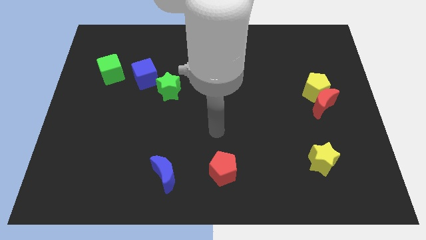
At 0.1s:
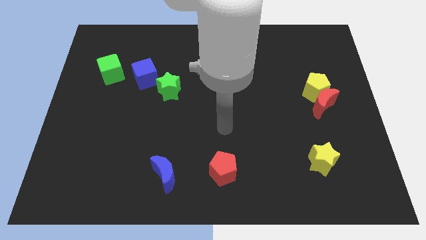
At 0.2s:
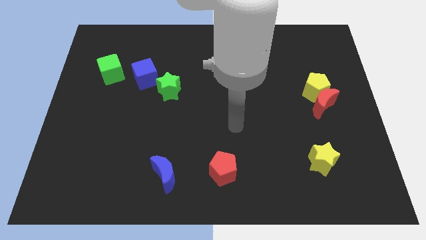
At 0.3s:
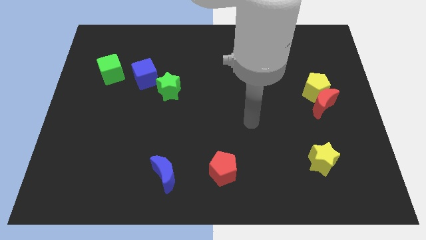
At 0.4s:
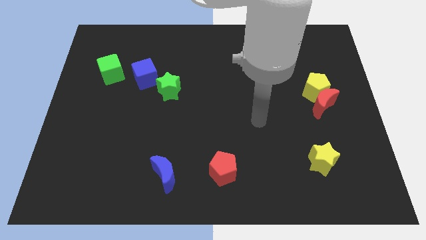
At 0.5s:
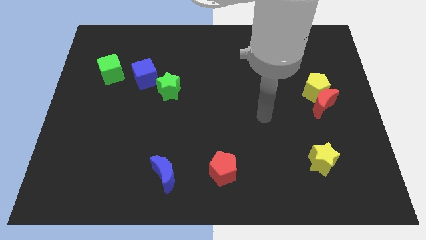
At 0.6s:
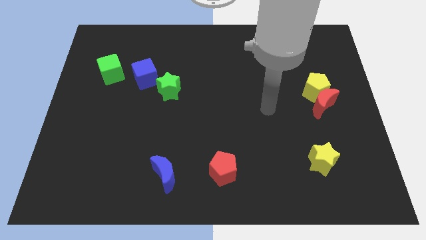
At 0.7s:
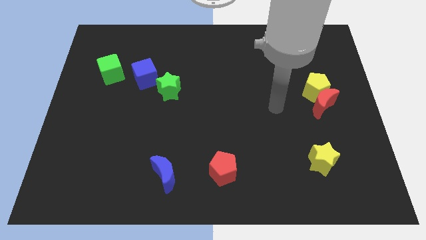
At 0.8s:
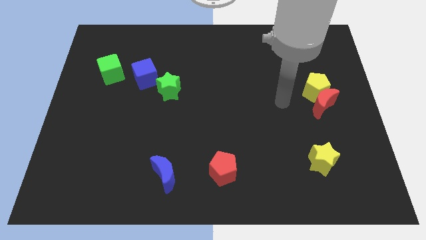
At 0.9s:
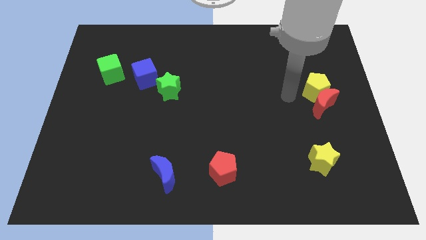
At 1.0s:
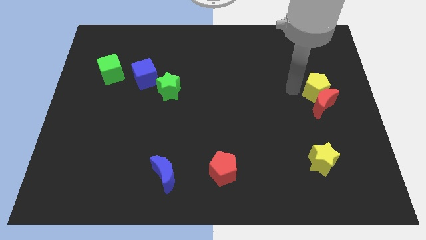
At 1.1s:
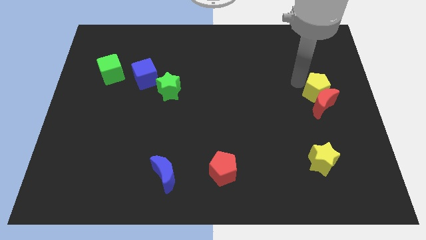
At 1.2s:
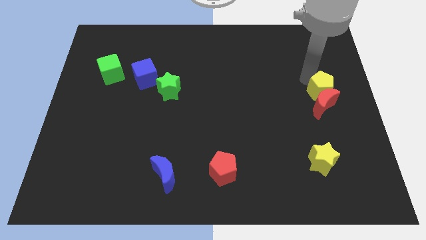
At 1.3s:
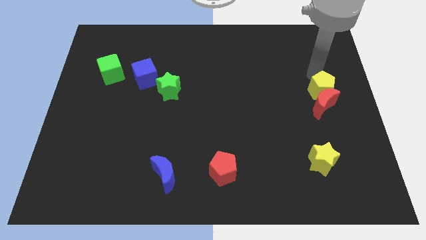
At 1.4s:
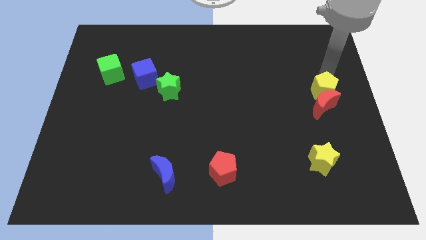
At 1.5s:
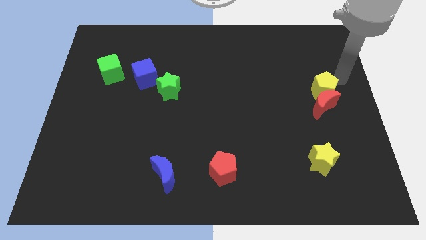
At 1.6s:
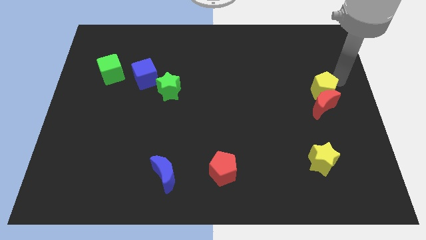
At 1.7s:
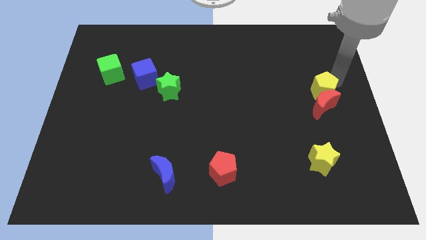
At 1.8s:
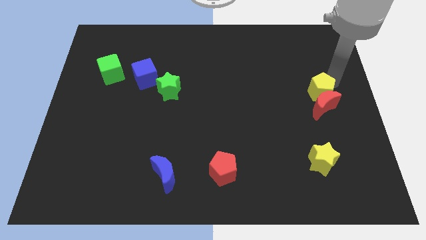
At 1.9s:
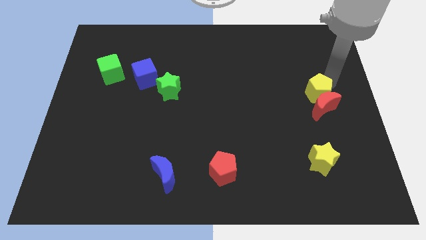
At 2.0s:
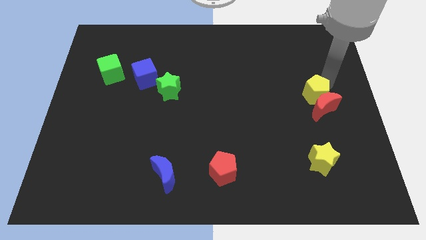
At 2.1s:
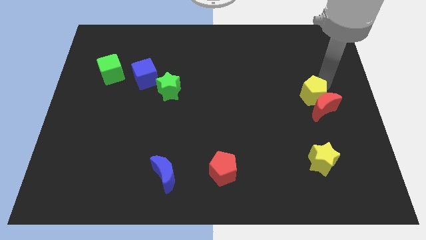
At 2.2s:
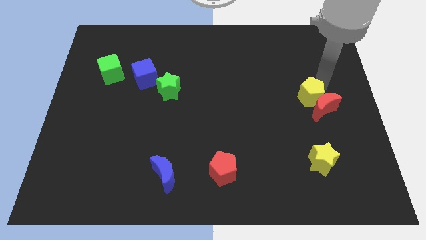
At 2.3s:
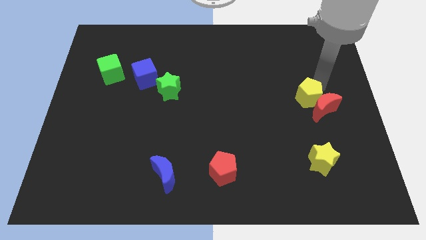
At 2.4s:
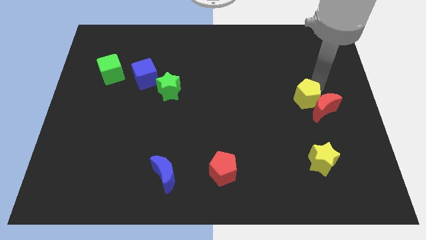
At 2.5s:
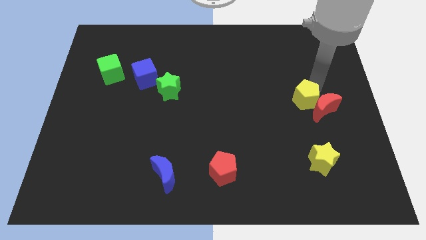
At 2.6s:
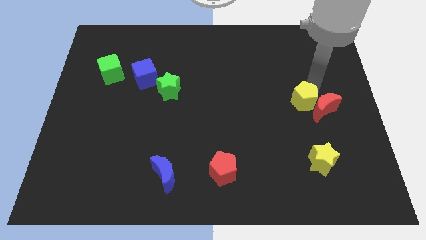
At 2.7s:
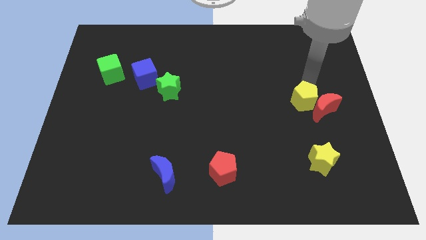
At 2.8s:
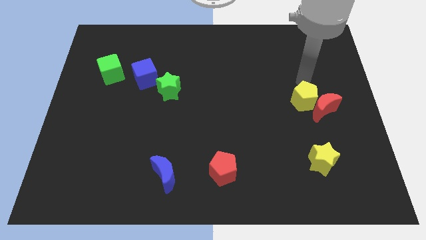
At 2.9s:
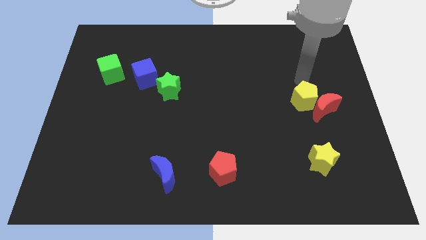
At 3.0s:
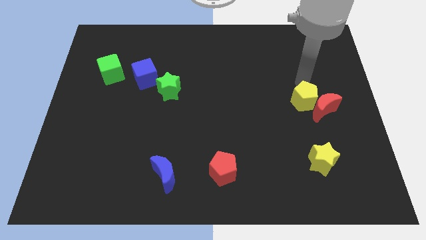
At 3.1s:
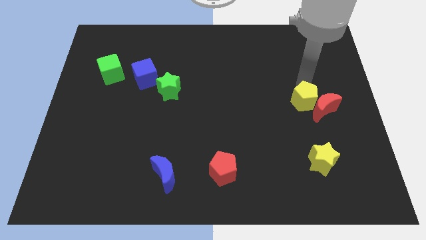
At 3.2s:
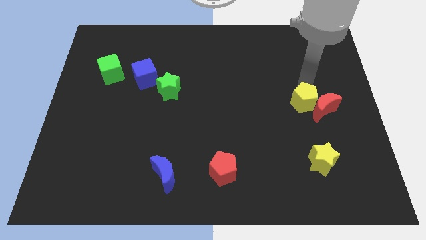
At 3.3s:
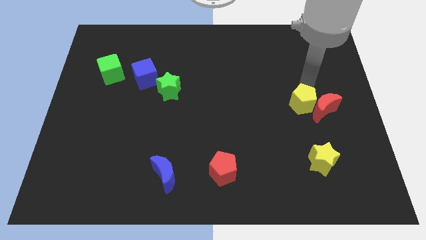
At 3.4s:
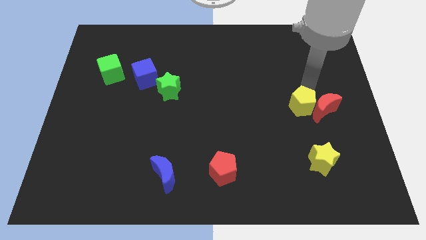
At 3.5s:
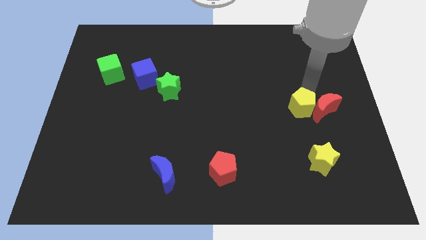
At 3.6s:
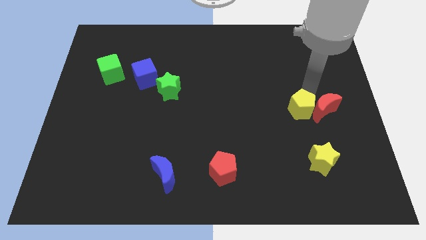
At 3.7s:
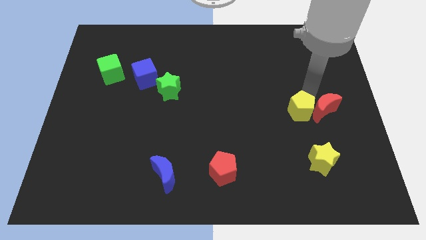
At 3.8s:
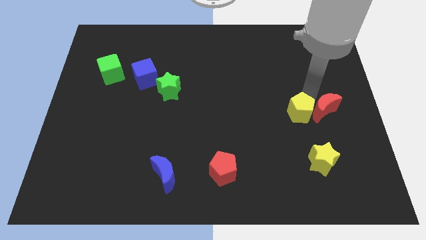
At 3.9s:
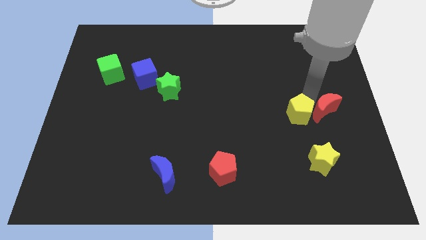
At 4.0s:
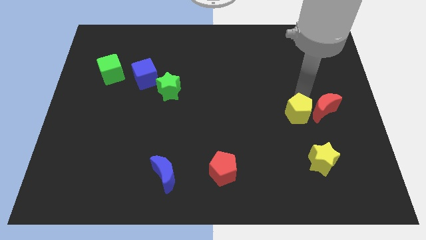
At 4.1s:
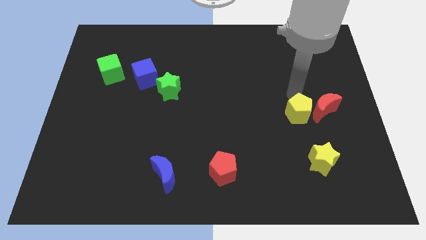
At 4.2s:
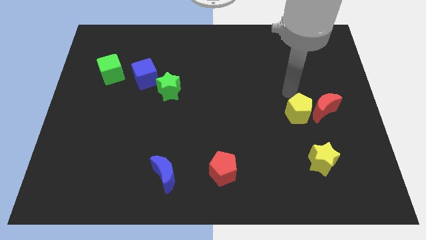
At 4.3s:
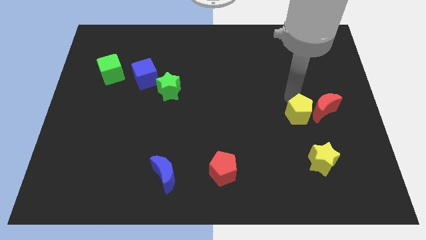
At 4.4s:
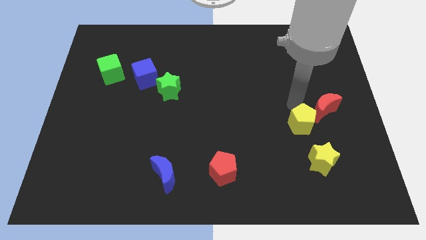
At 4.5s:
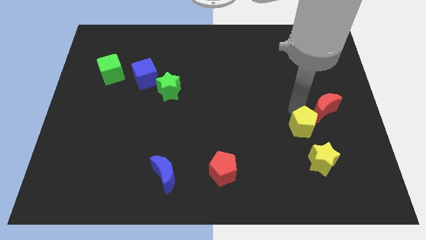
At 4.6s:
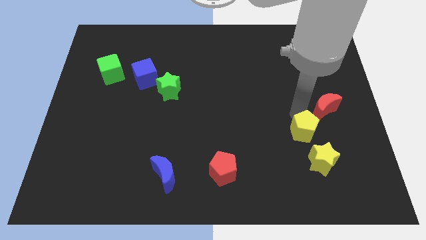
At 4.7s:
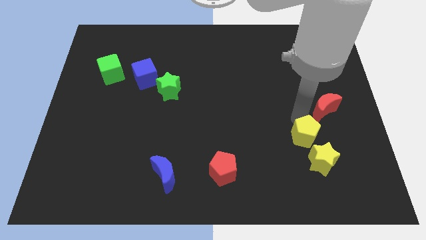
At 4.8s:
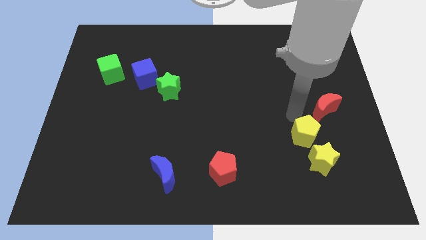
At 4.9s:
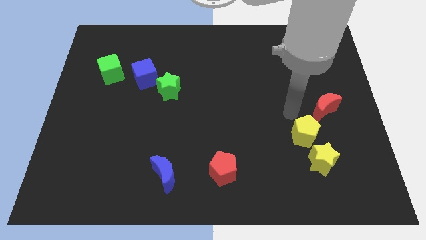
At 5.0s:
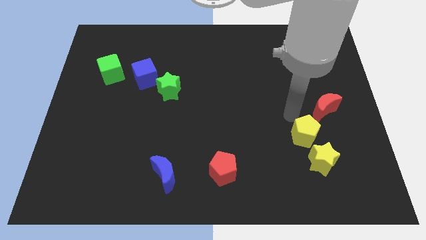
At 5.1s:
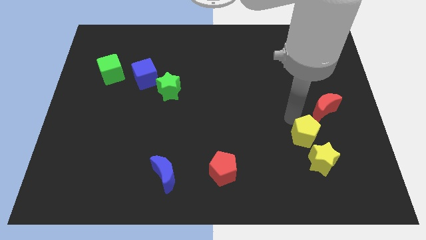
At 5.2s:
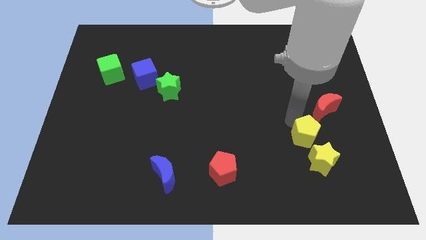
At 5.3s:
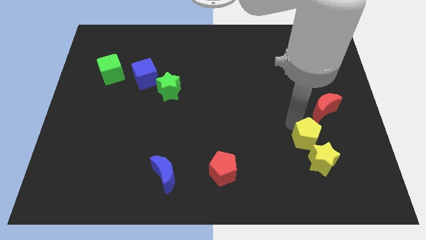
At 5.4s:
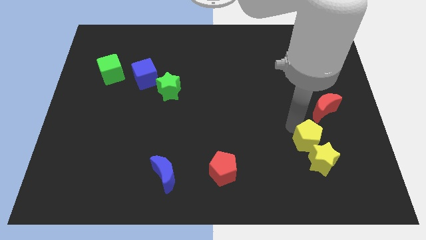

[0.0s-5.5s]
slide the yellow pentagon to the yellow star

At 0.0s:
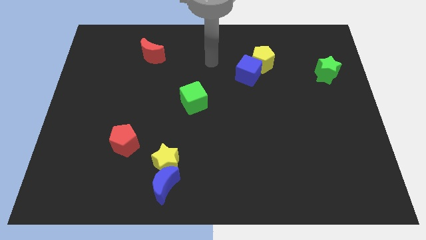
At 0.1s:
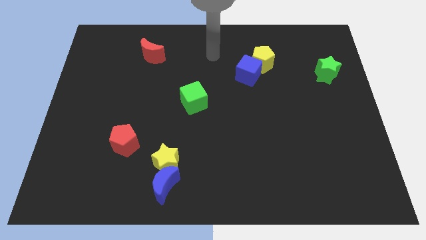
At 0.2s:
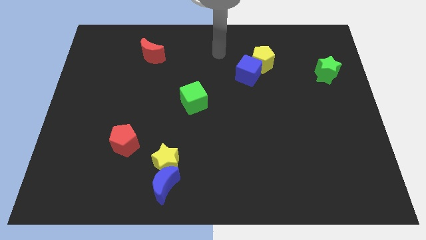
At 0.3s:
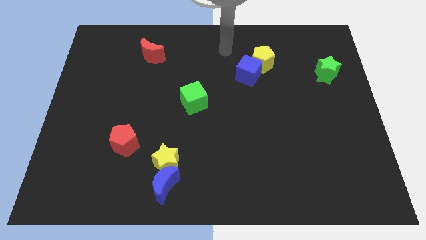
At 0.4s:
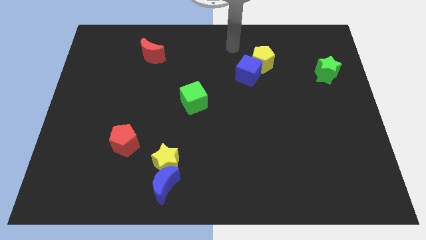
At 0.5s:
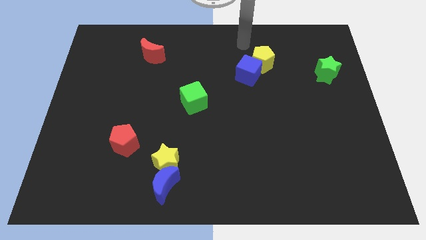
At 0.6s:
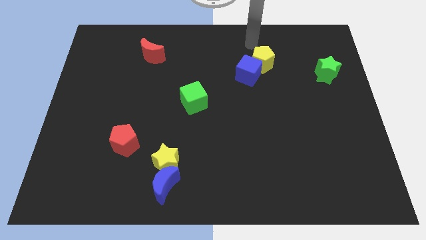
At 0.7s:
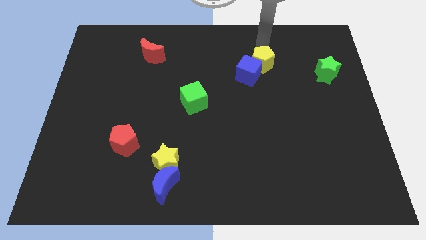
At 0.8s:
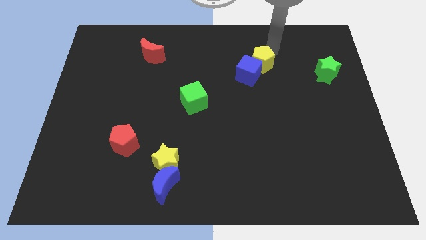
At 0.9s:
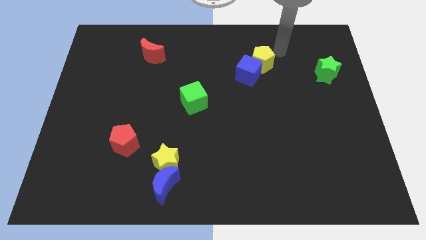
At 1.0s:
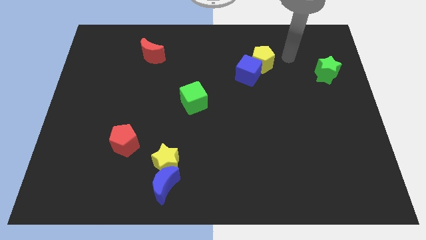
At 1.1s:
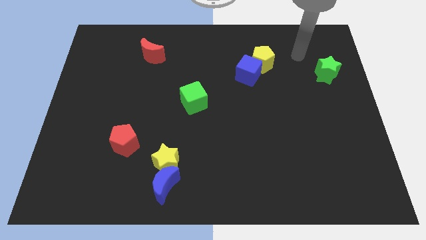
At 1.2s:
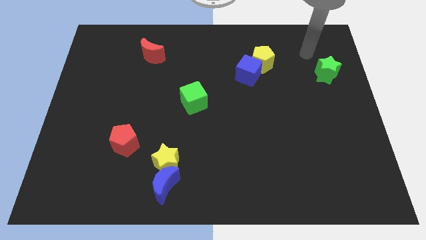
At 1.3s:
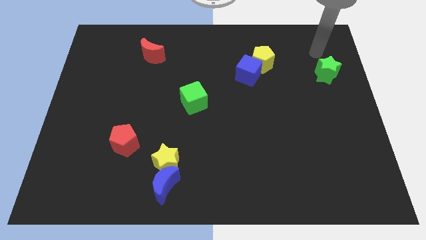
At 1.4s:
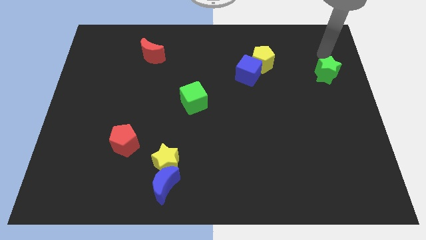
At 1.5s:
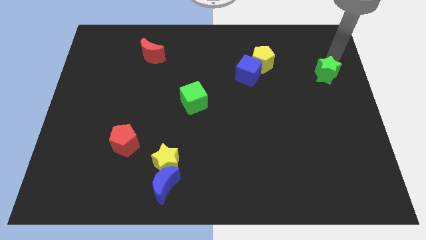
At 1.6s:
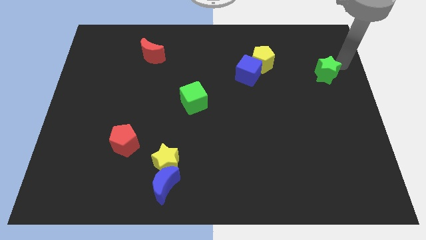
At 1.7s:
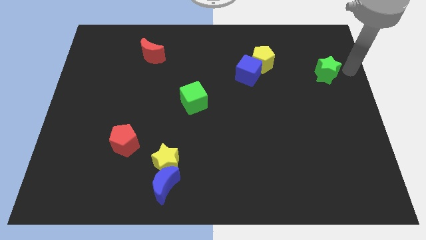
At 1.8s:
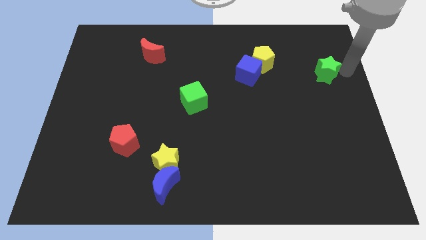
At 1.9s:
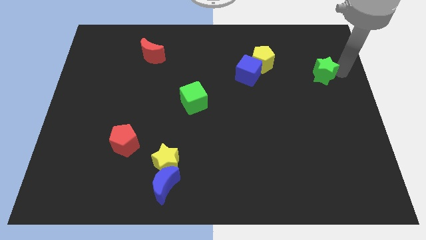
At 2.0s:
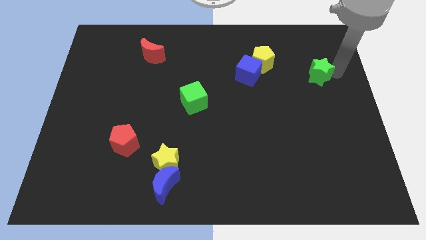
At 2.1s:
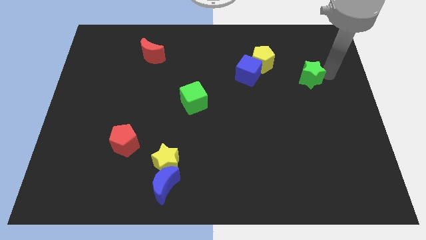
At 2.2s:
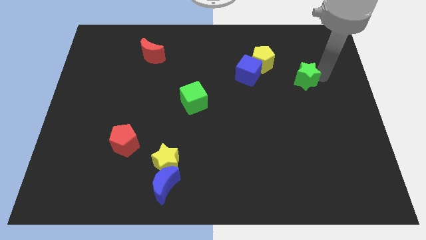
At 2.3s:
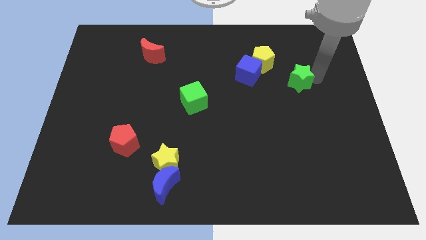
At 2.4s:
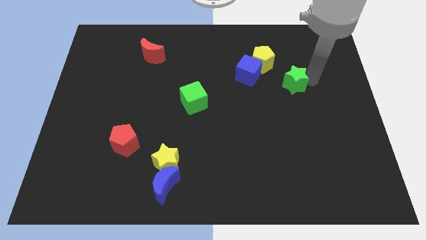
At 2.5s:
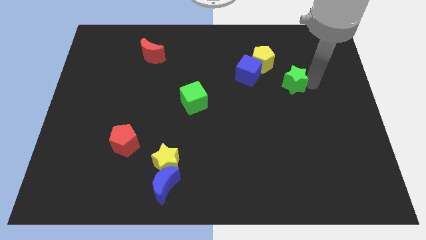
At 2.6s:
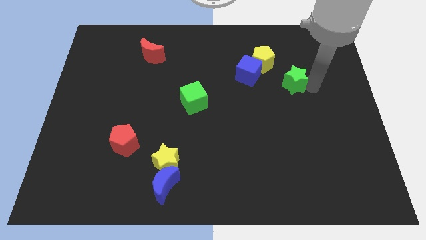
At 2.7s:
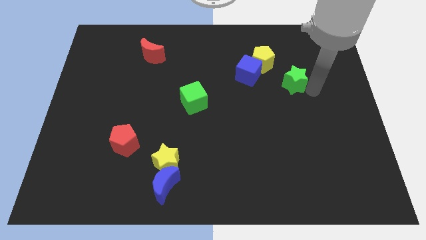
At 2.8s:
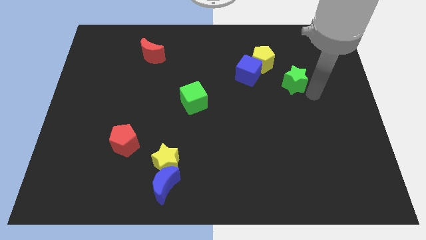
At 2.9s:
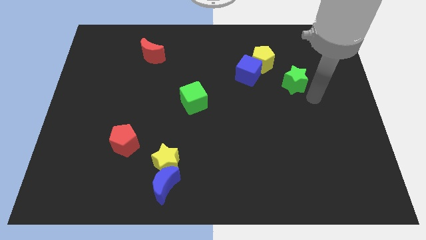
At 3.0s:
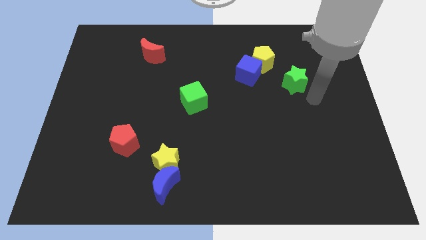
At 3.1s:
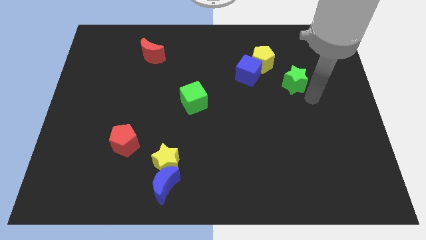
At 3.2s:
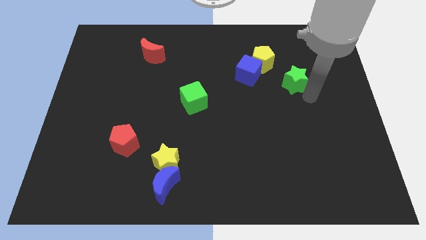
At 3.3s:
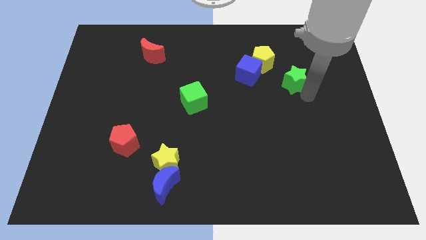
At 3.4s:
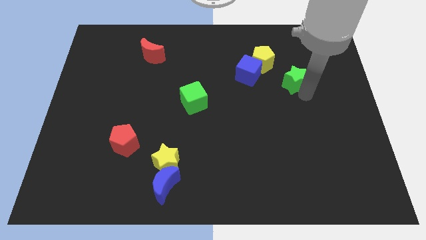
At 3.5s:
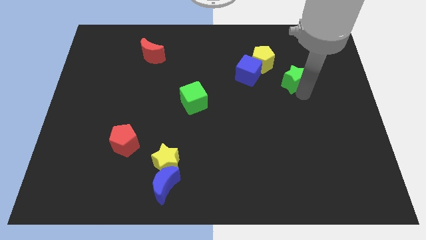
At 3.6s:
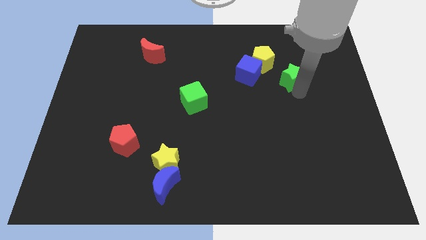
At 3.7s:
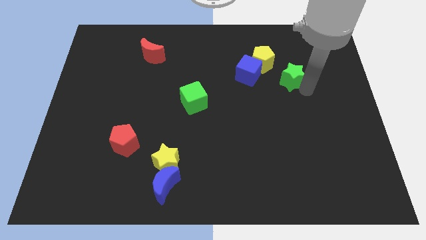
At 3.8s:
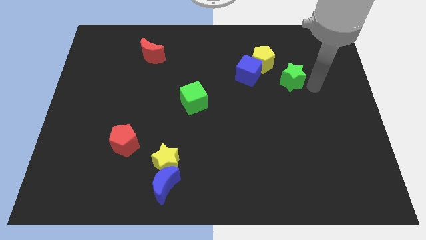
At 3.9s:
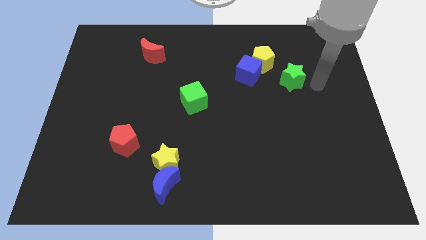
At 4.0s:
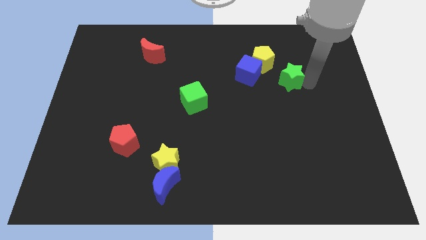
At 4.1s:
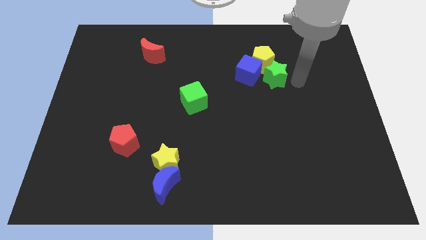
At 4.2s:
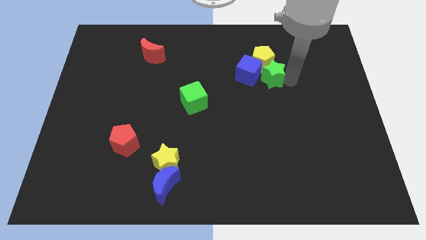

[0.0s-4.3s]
push the green star next to the blue cube
